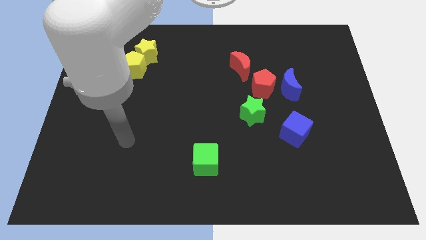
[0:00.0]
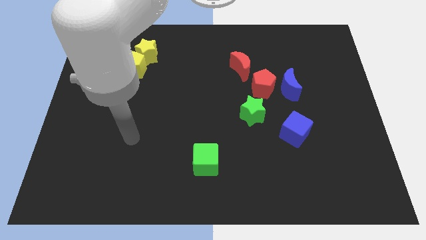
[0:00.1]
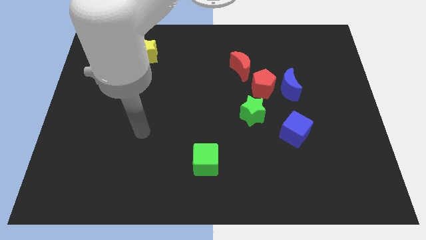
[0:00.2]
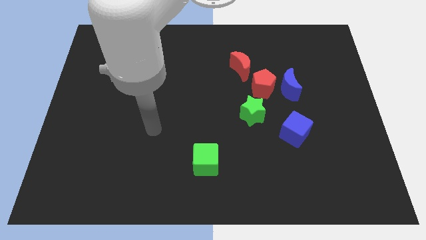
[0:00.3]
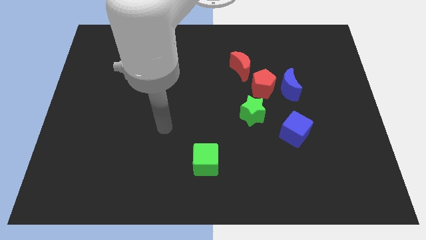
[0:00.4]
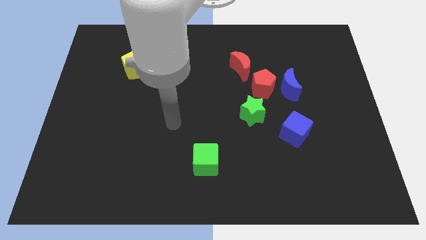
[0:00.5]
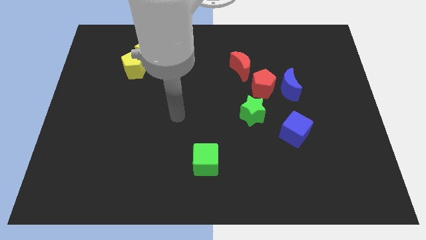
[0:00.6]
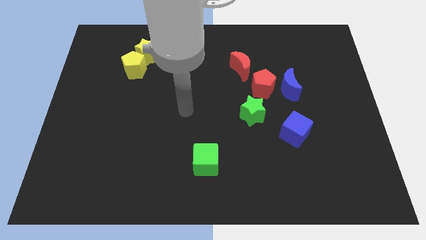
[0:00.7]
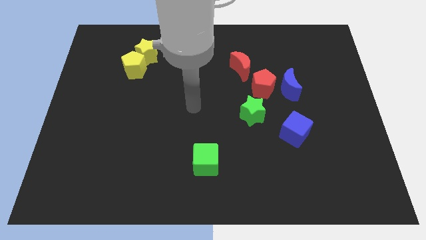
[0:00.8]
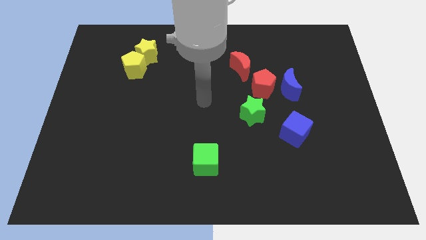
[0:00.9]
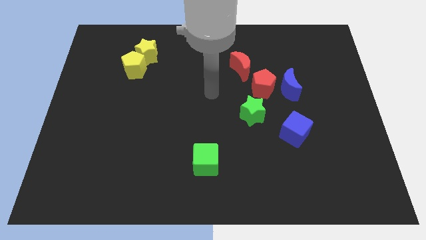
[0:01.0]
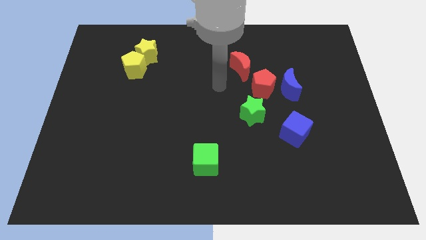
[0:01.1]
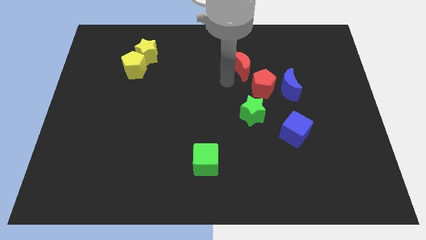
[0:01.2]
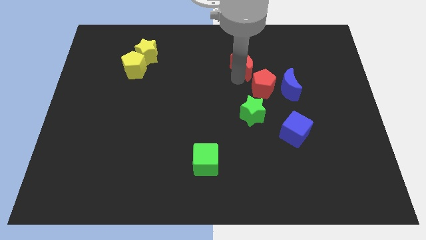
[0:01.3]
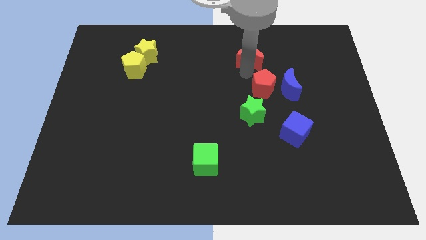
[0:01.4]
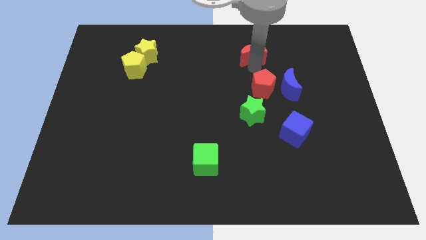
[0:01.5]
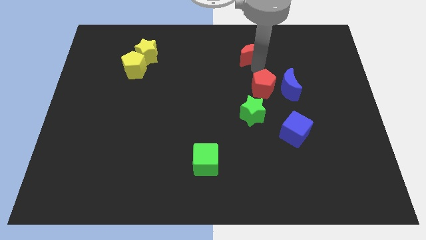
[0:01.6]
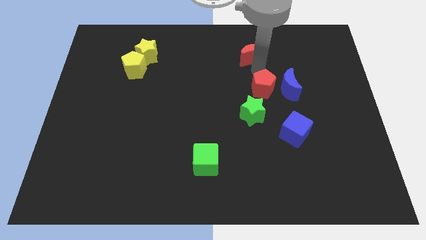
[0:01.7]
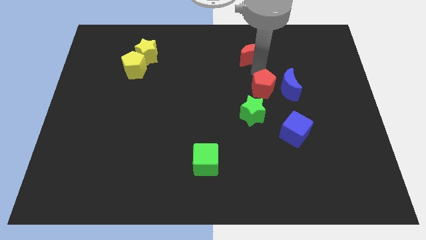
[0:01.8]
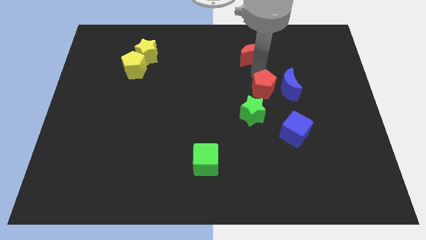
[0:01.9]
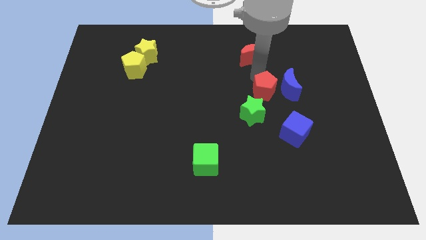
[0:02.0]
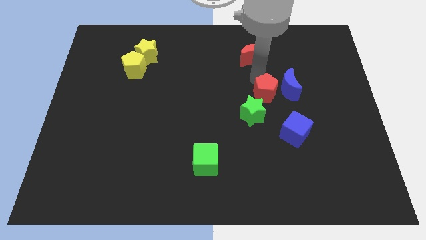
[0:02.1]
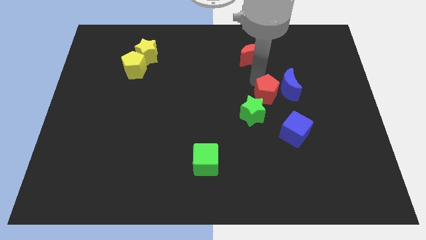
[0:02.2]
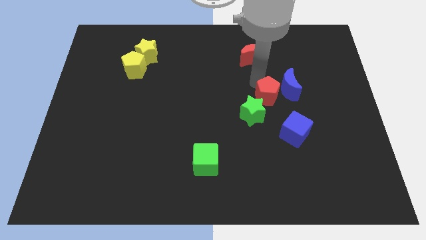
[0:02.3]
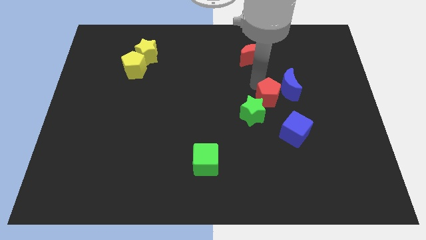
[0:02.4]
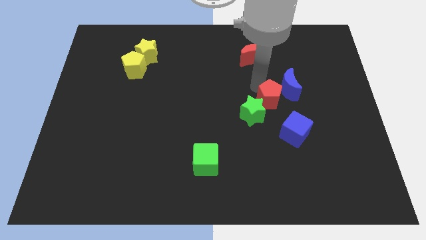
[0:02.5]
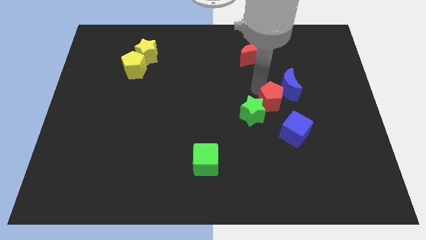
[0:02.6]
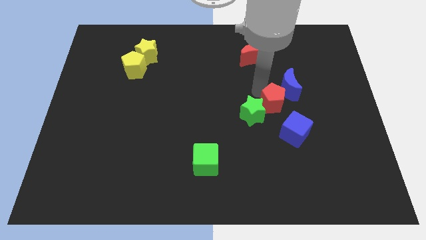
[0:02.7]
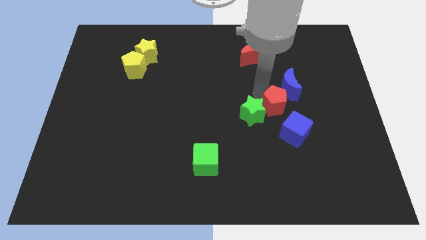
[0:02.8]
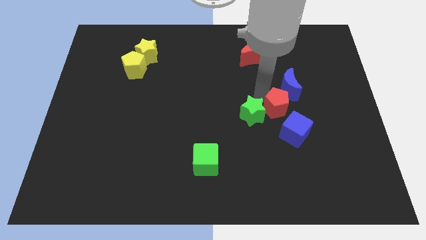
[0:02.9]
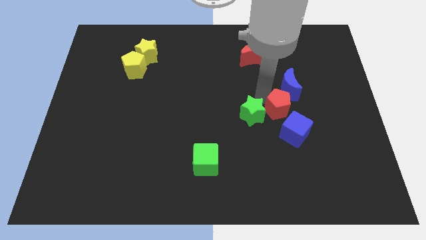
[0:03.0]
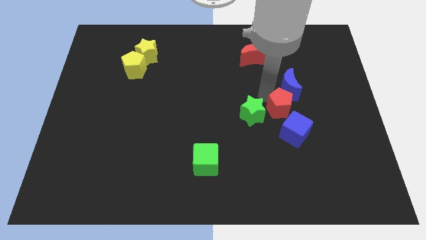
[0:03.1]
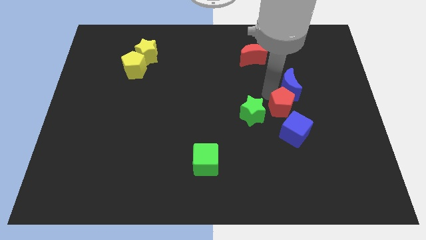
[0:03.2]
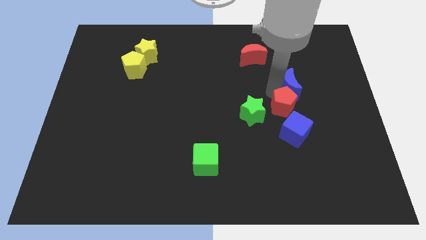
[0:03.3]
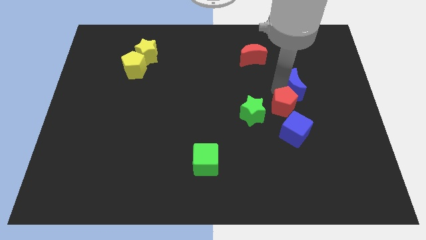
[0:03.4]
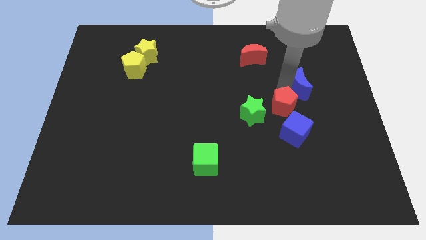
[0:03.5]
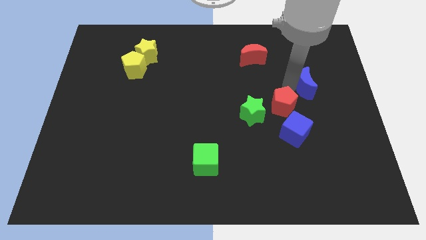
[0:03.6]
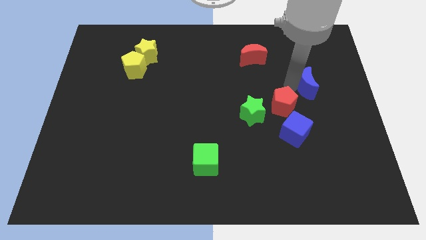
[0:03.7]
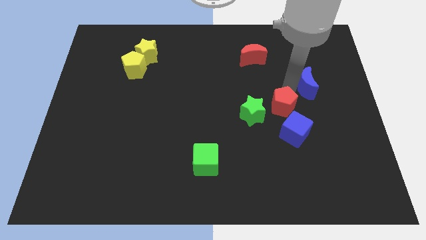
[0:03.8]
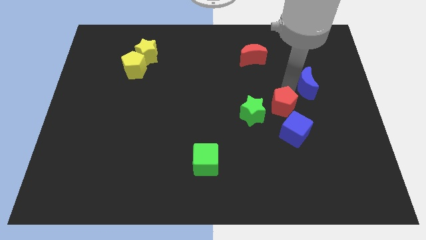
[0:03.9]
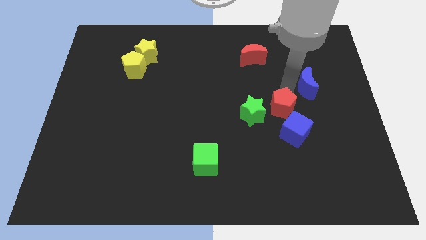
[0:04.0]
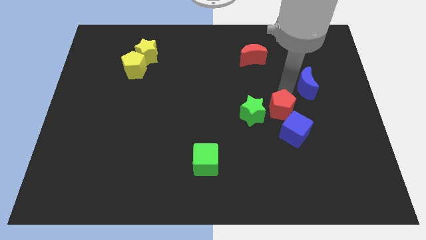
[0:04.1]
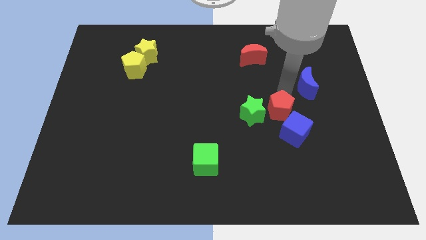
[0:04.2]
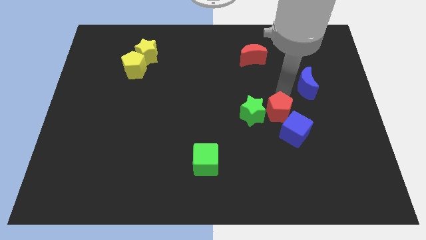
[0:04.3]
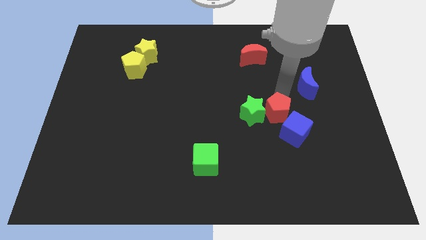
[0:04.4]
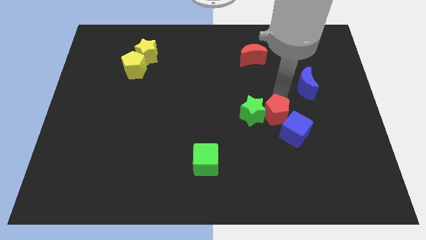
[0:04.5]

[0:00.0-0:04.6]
move the red pentagon close to the blue cube

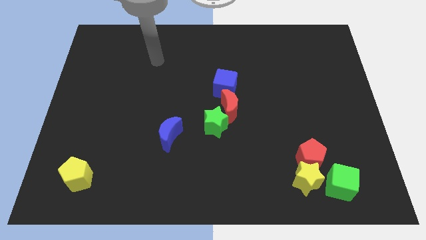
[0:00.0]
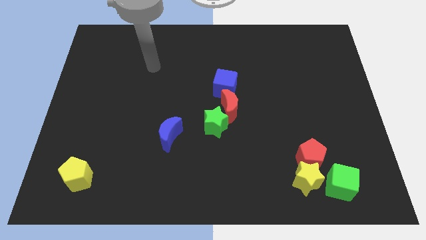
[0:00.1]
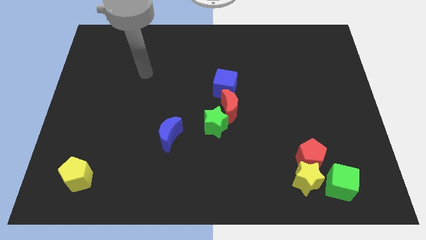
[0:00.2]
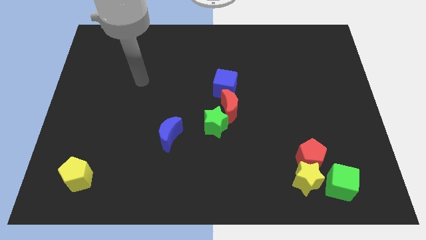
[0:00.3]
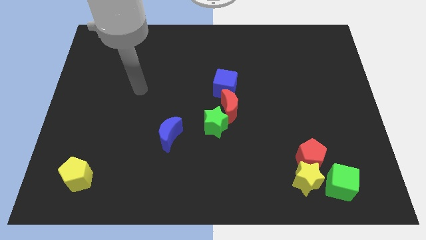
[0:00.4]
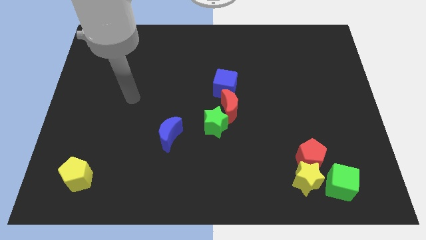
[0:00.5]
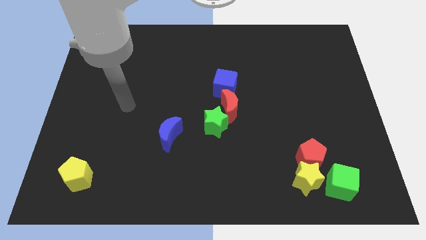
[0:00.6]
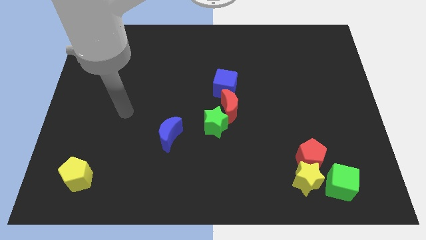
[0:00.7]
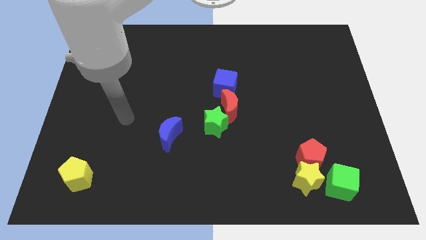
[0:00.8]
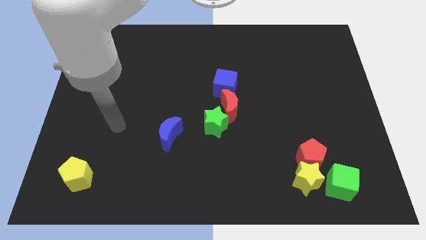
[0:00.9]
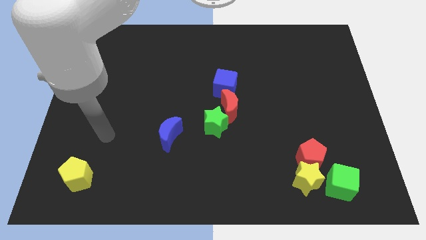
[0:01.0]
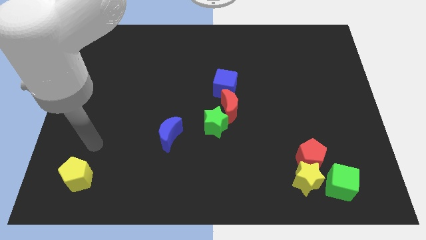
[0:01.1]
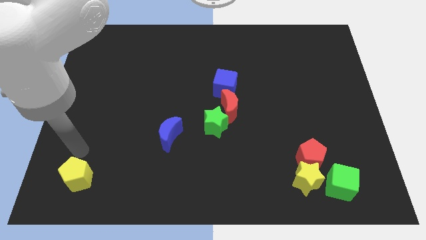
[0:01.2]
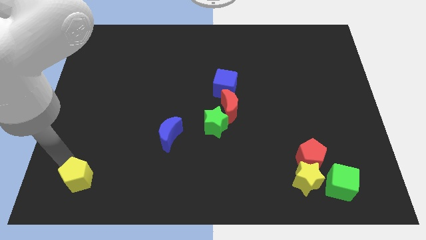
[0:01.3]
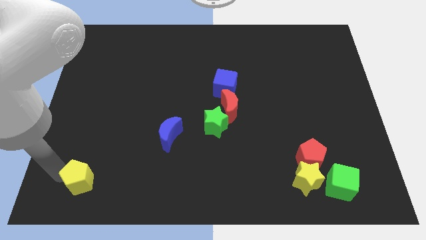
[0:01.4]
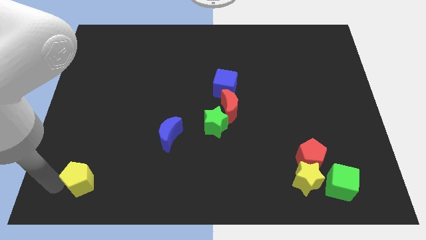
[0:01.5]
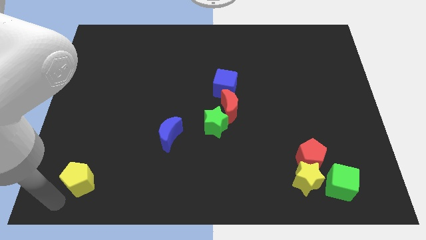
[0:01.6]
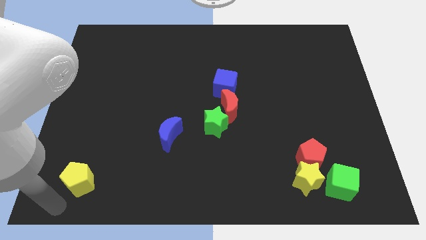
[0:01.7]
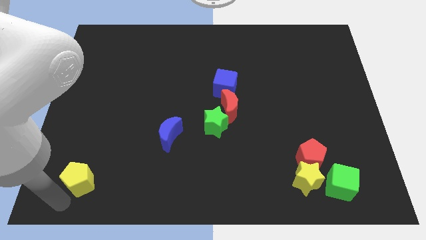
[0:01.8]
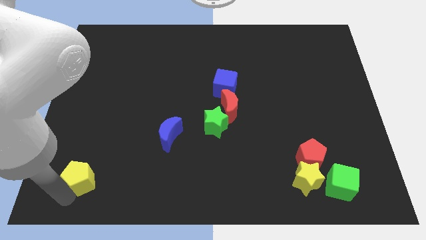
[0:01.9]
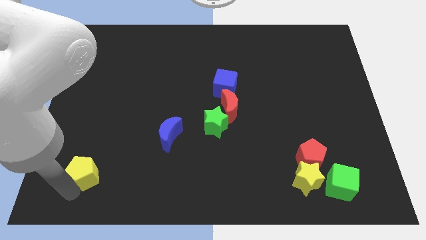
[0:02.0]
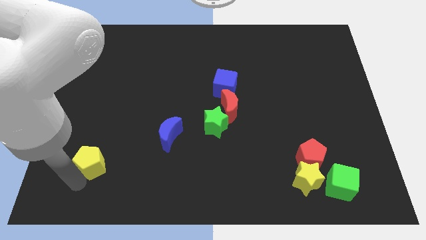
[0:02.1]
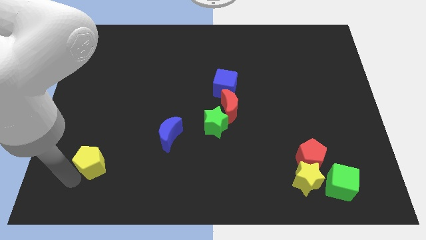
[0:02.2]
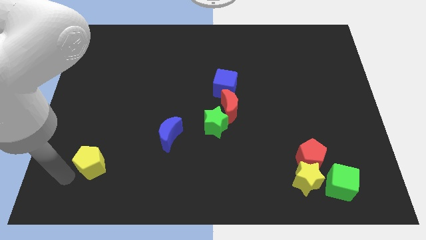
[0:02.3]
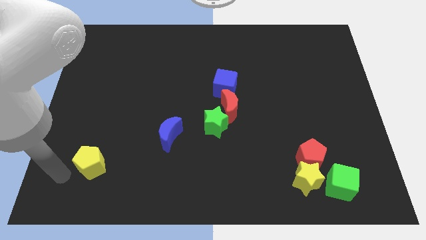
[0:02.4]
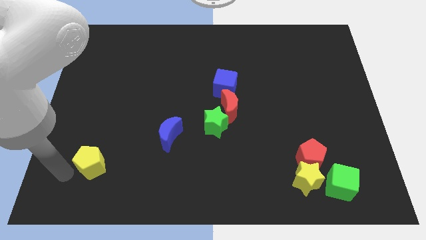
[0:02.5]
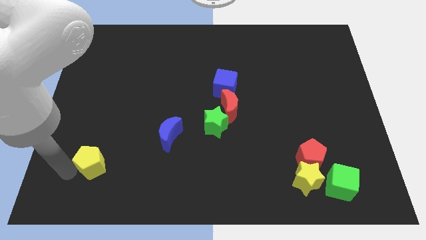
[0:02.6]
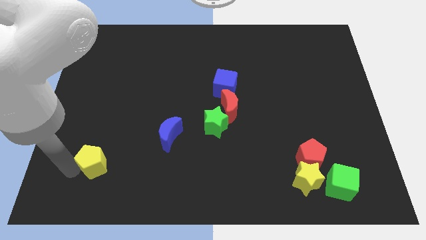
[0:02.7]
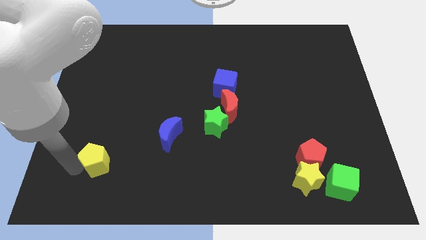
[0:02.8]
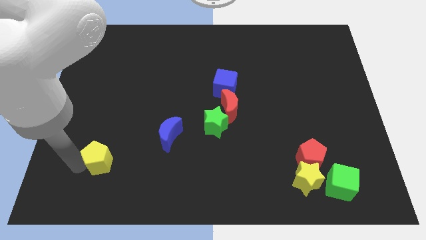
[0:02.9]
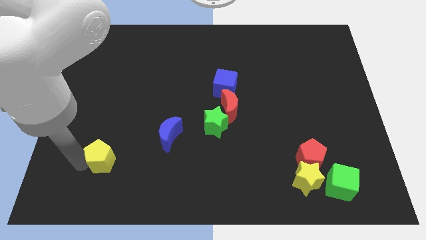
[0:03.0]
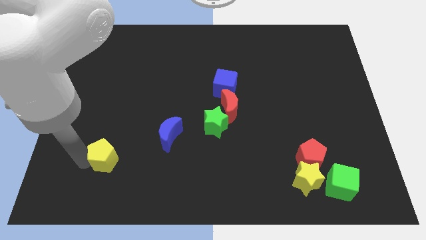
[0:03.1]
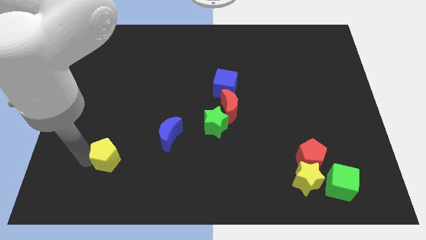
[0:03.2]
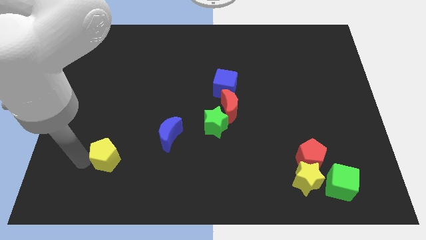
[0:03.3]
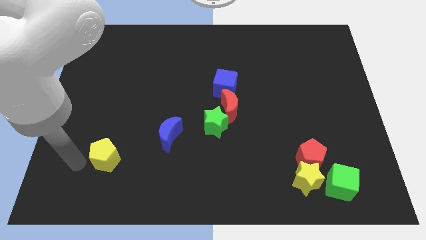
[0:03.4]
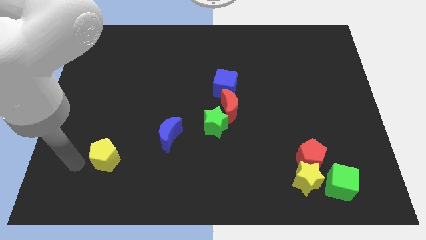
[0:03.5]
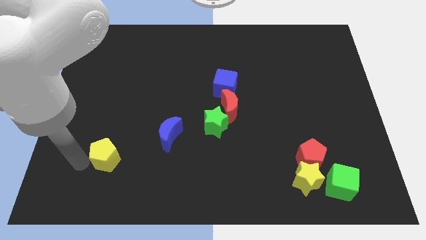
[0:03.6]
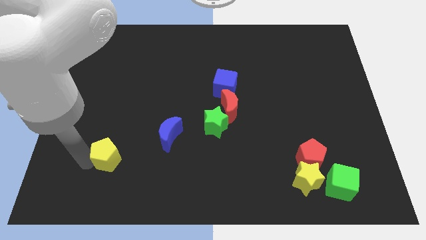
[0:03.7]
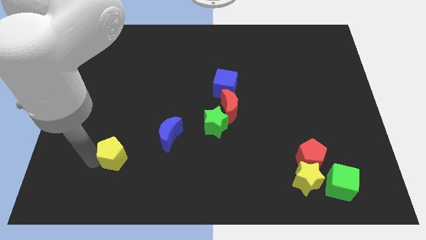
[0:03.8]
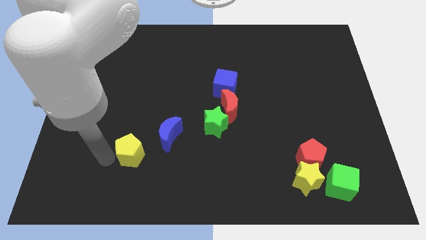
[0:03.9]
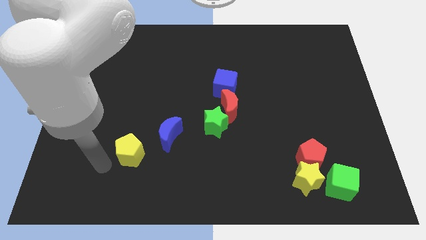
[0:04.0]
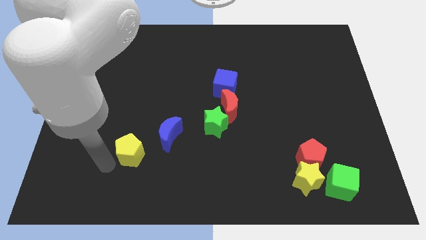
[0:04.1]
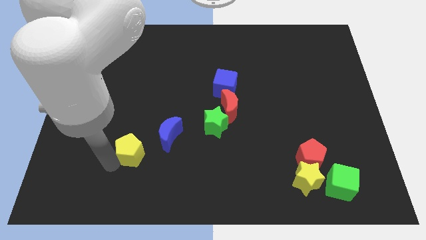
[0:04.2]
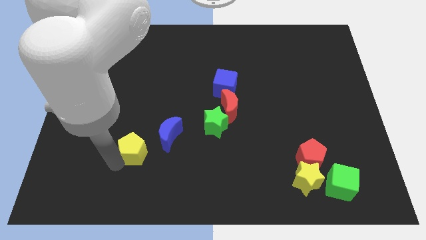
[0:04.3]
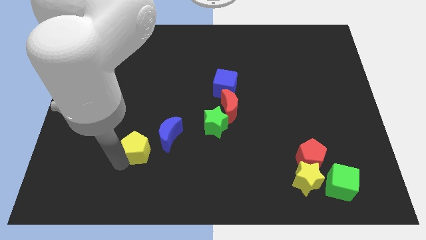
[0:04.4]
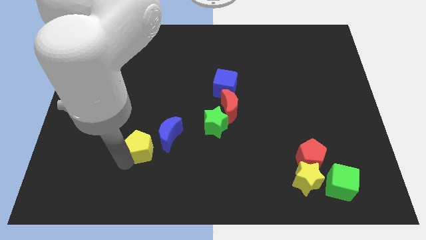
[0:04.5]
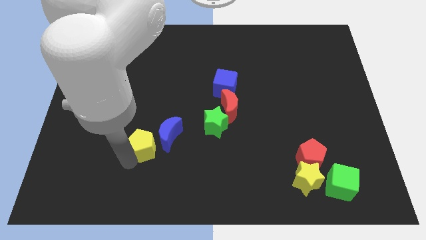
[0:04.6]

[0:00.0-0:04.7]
move the yellow pentagon to the blue moon
